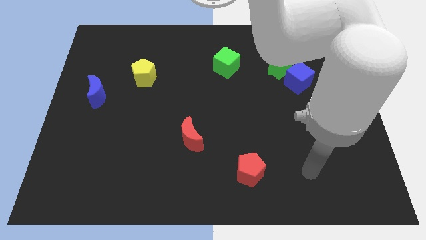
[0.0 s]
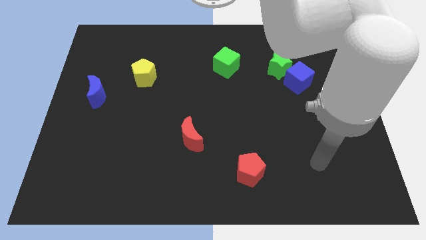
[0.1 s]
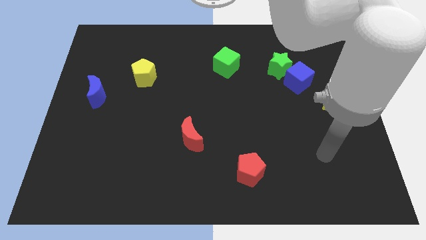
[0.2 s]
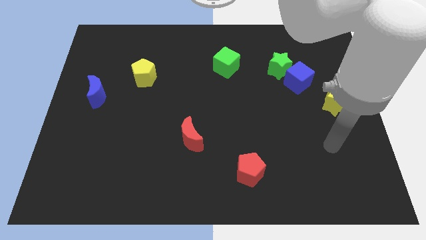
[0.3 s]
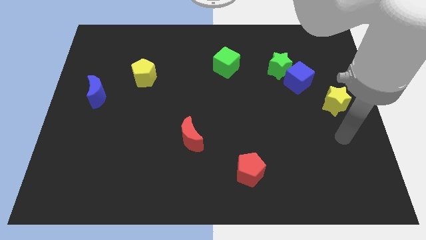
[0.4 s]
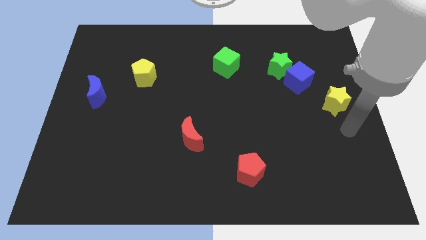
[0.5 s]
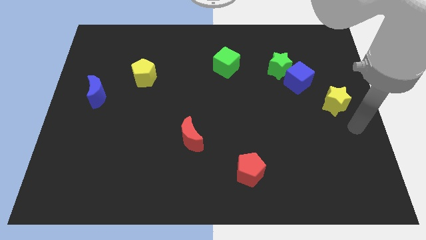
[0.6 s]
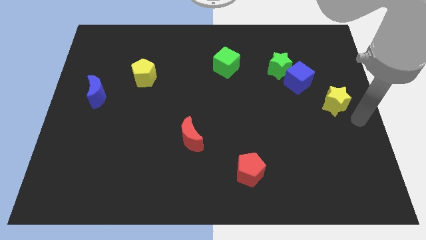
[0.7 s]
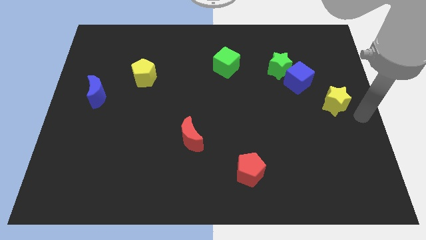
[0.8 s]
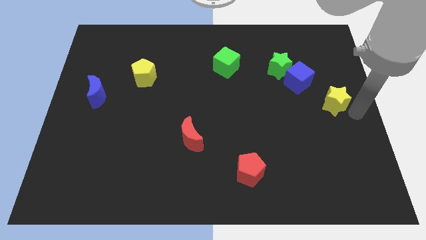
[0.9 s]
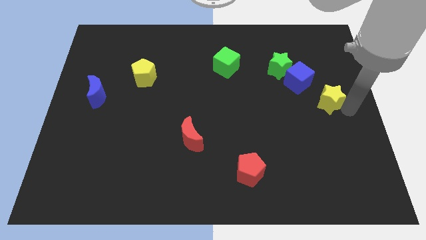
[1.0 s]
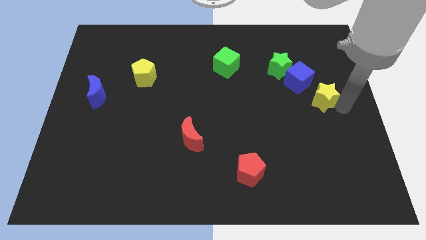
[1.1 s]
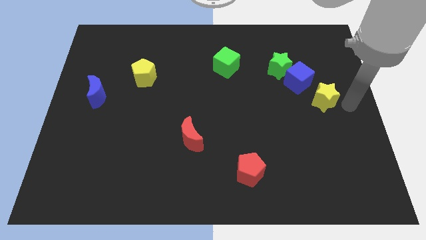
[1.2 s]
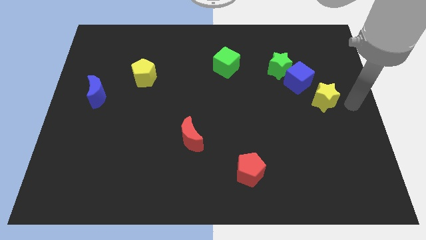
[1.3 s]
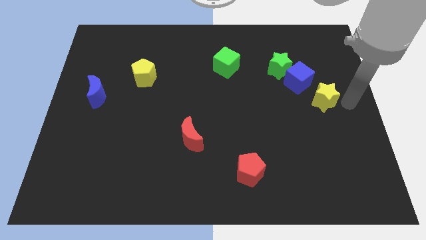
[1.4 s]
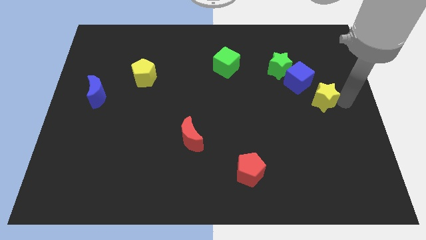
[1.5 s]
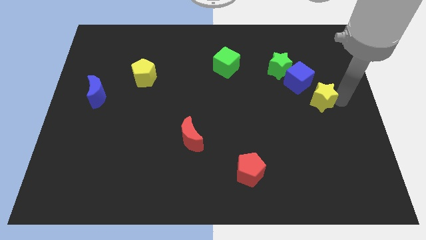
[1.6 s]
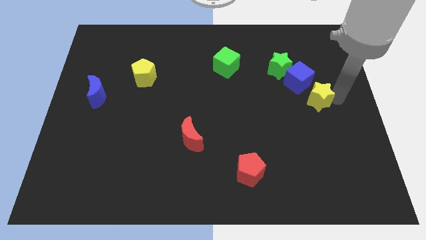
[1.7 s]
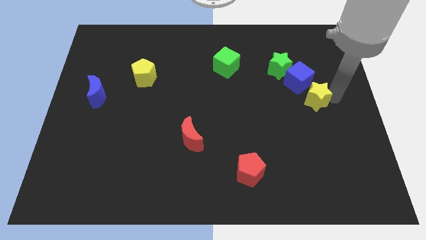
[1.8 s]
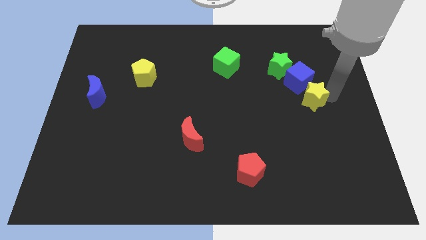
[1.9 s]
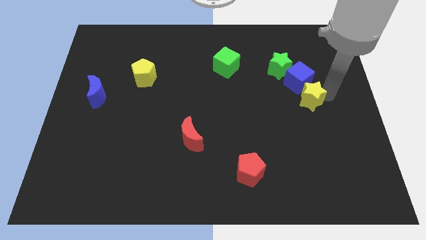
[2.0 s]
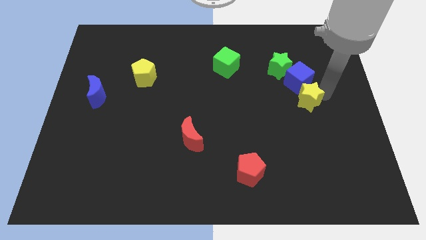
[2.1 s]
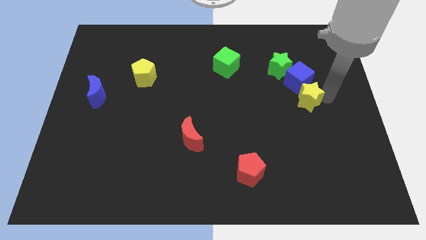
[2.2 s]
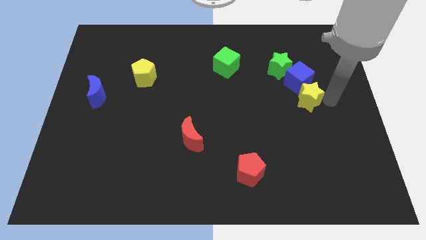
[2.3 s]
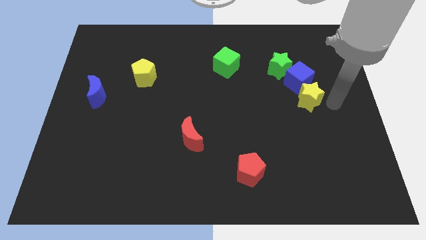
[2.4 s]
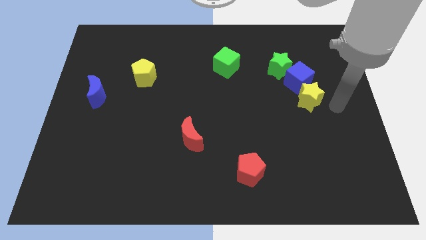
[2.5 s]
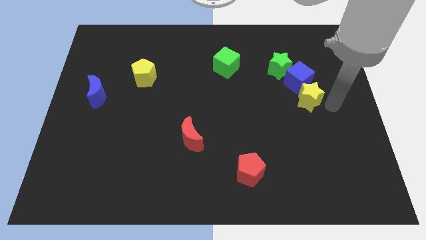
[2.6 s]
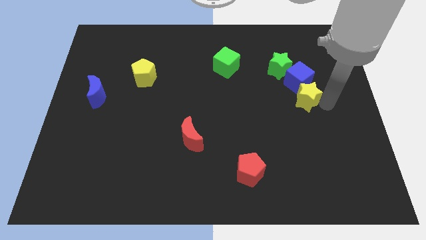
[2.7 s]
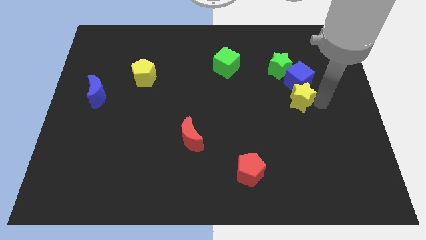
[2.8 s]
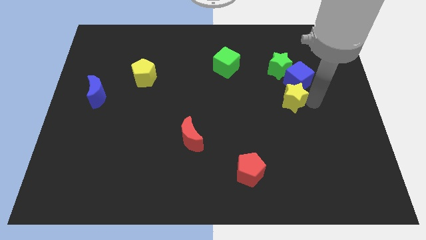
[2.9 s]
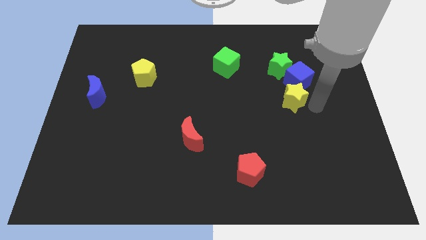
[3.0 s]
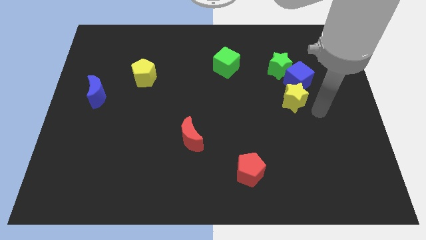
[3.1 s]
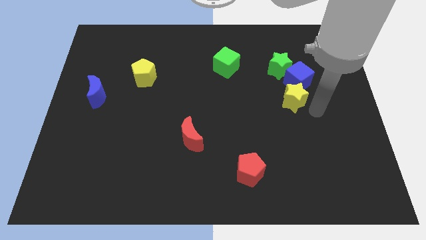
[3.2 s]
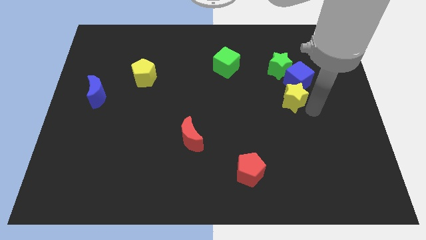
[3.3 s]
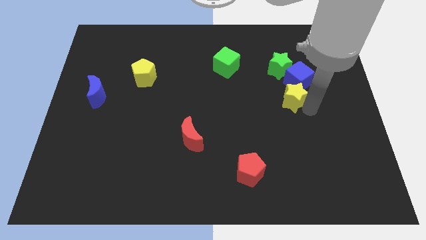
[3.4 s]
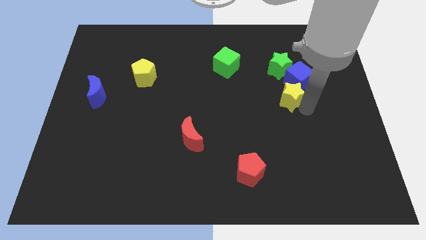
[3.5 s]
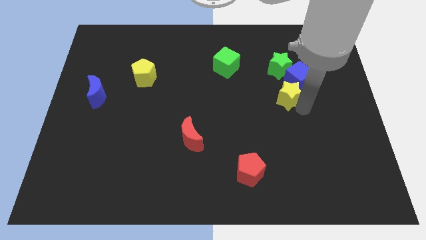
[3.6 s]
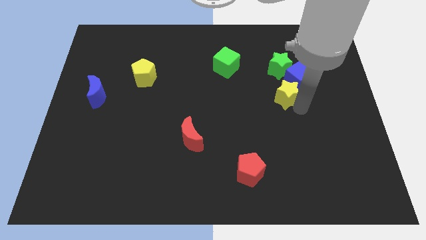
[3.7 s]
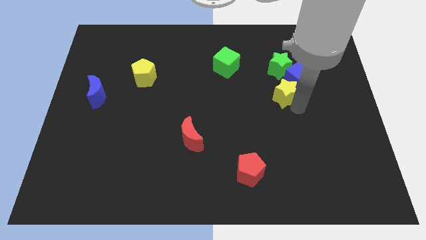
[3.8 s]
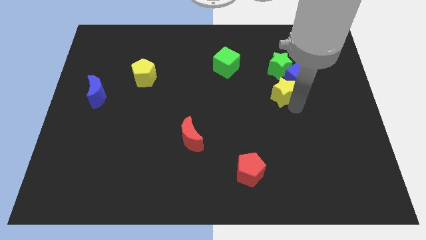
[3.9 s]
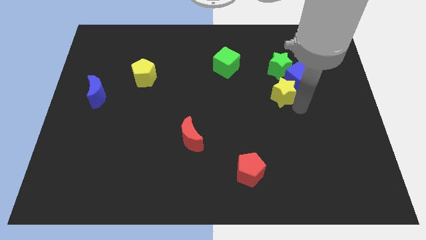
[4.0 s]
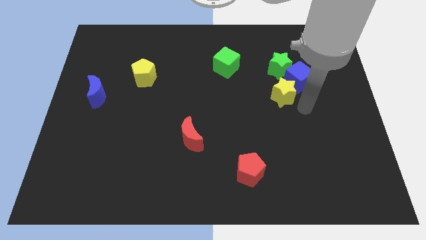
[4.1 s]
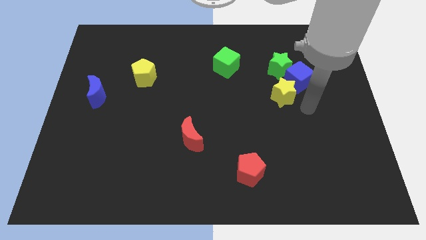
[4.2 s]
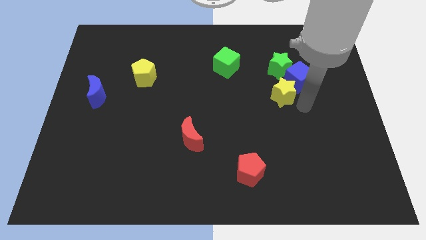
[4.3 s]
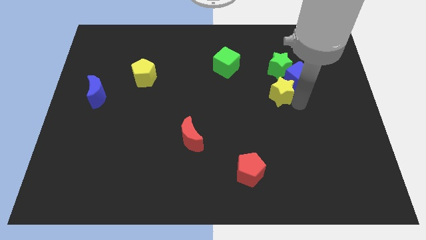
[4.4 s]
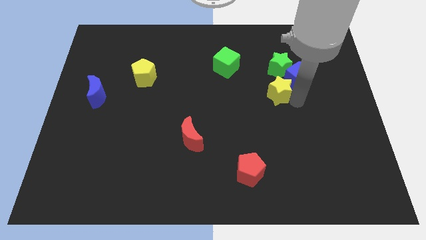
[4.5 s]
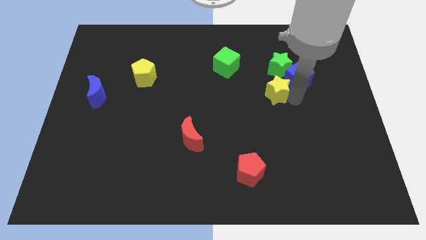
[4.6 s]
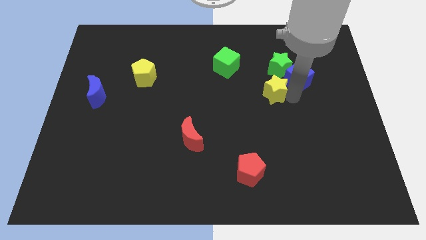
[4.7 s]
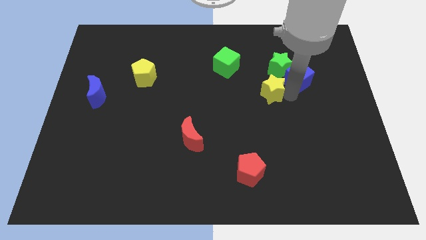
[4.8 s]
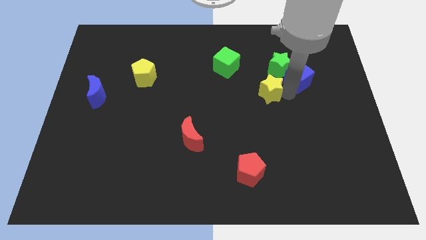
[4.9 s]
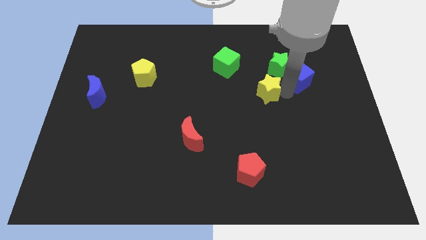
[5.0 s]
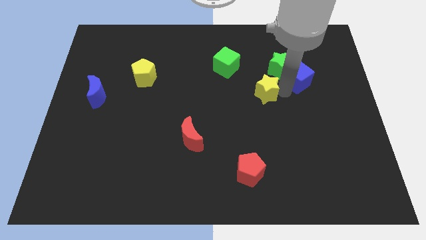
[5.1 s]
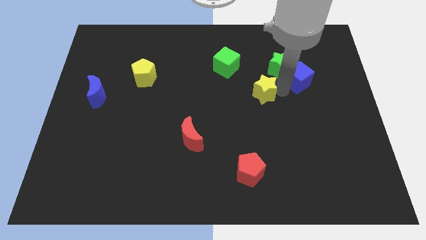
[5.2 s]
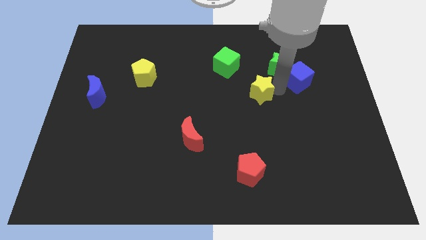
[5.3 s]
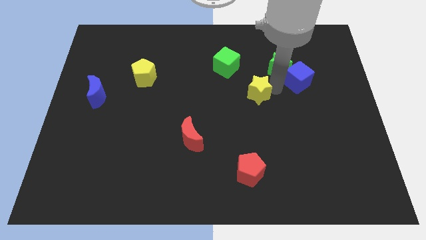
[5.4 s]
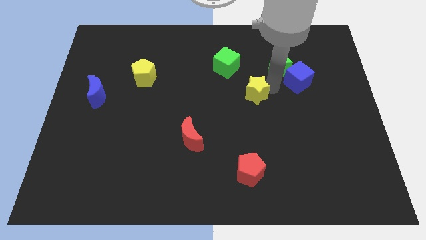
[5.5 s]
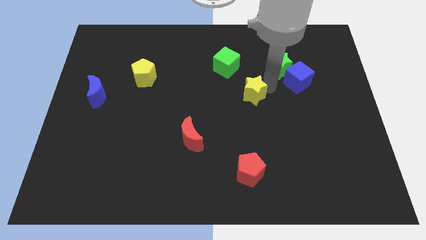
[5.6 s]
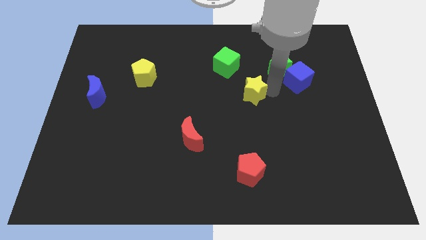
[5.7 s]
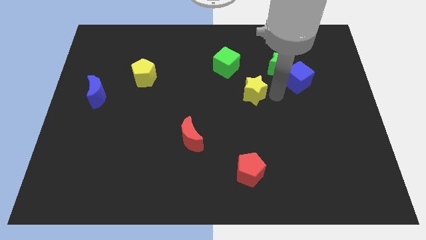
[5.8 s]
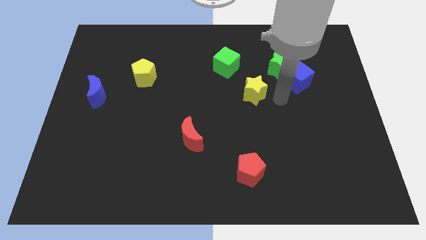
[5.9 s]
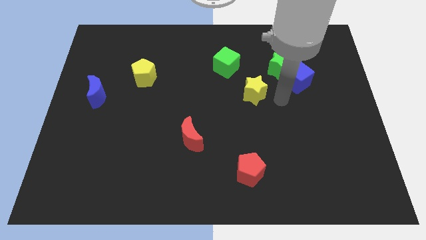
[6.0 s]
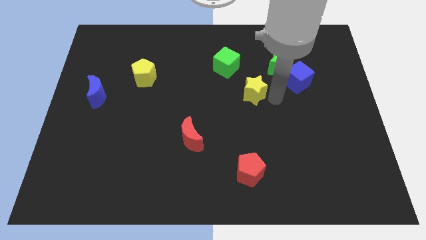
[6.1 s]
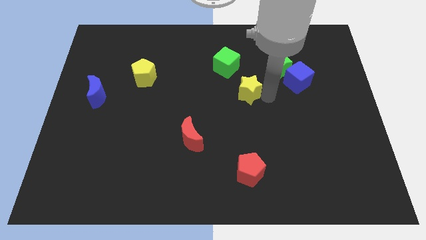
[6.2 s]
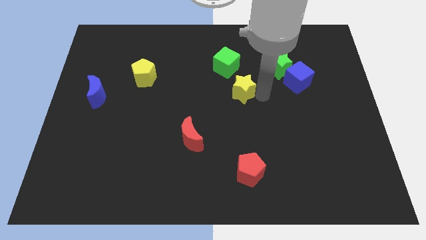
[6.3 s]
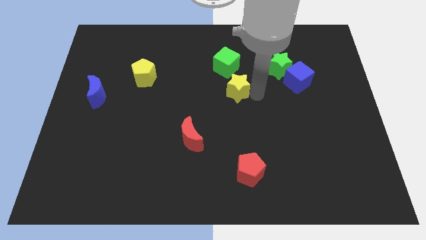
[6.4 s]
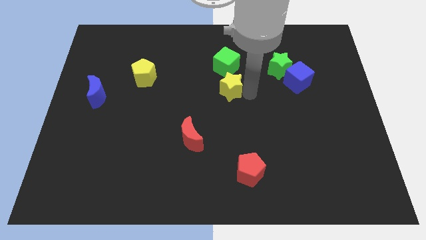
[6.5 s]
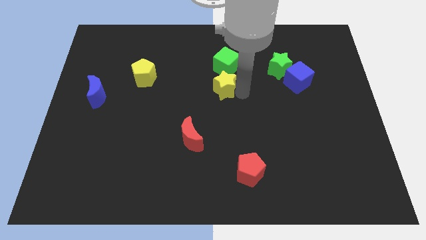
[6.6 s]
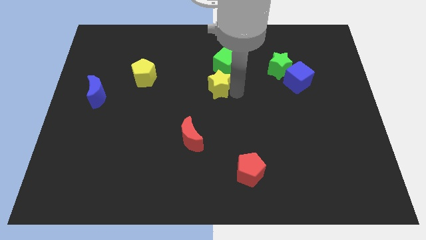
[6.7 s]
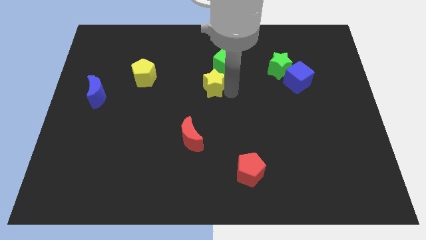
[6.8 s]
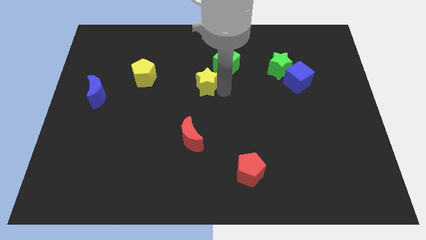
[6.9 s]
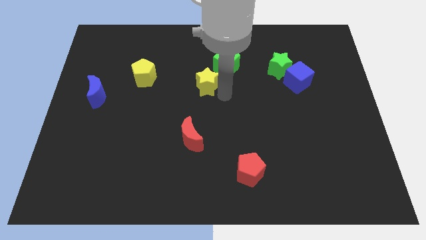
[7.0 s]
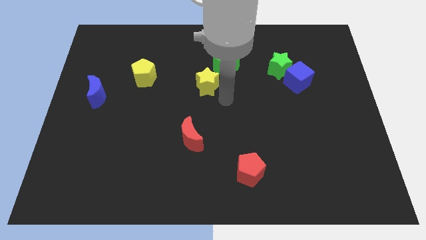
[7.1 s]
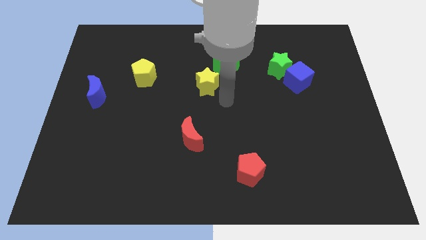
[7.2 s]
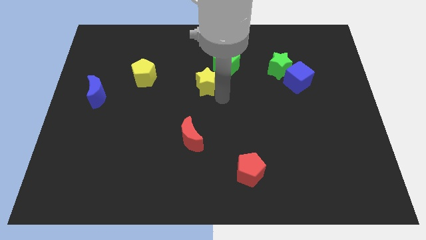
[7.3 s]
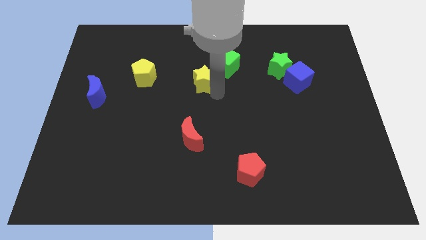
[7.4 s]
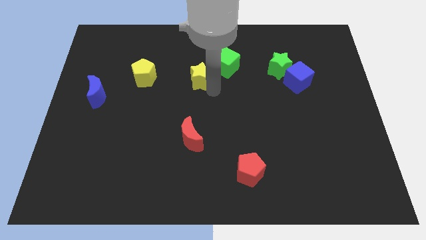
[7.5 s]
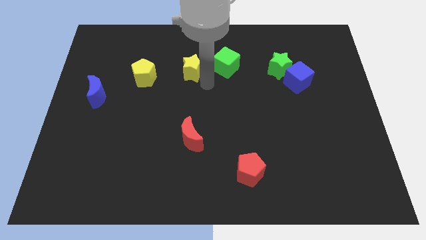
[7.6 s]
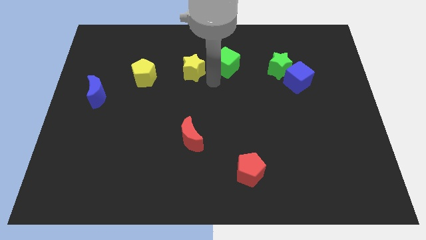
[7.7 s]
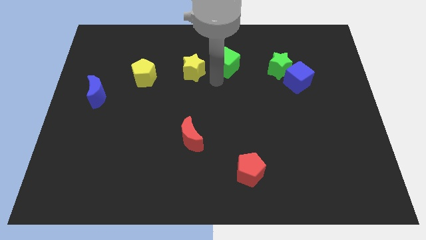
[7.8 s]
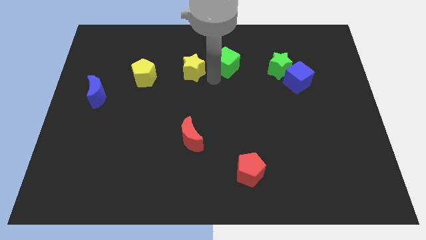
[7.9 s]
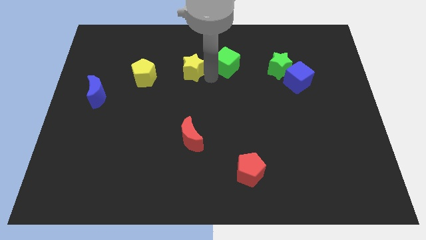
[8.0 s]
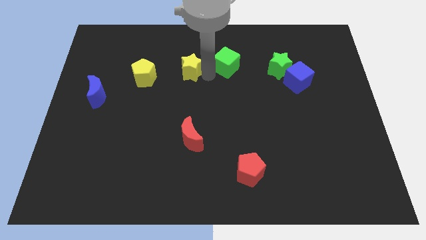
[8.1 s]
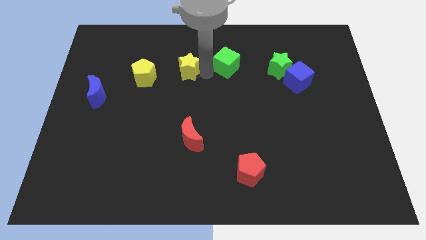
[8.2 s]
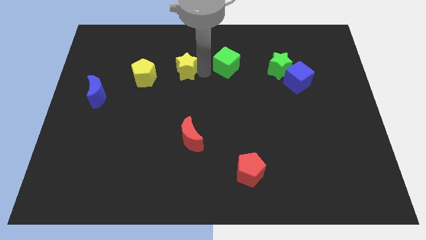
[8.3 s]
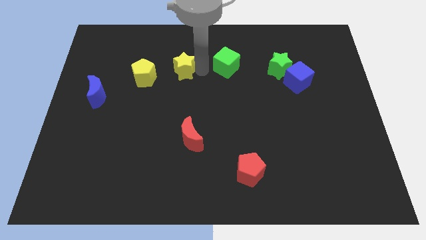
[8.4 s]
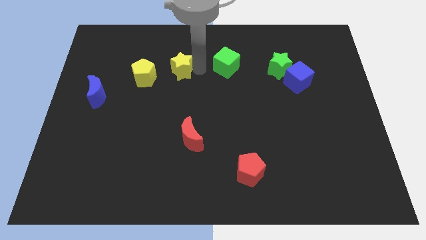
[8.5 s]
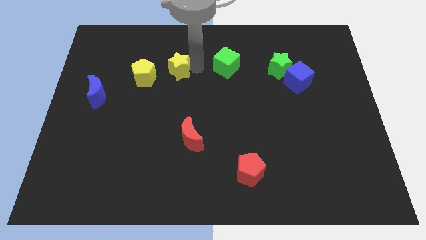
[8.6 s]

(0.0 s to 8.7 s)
move the yellow star diagonally up and to the right of the yellow pentagon
